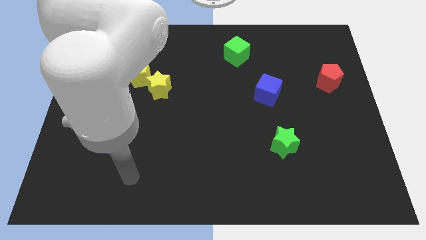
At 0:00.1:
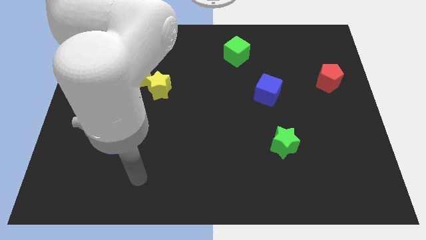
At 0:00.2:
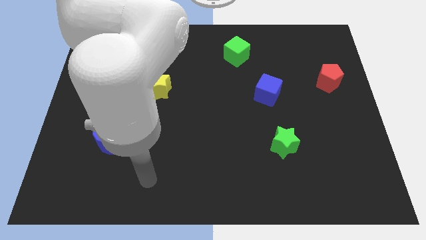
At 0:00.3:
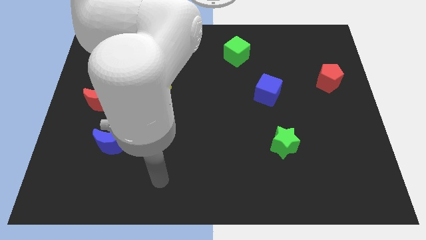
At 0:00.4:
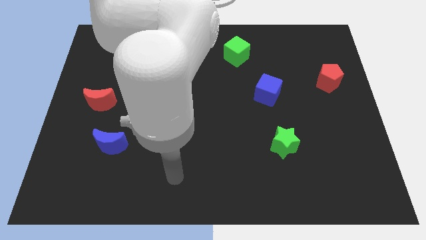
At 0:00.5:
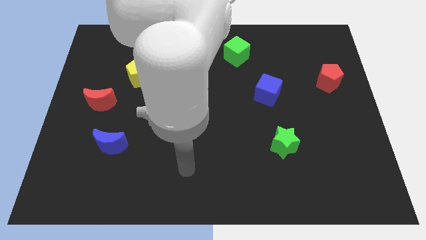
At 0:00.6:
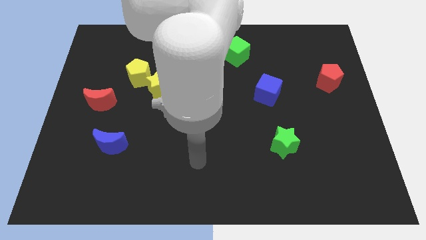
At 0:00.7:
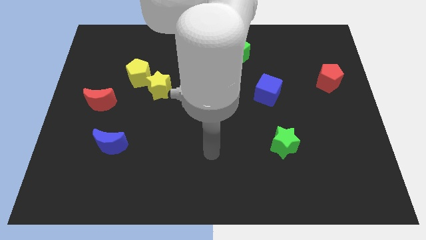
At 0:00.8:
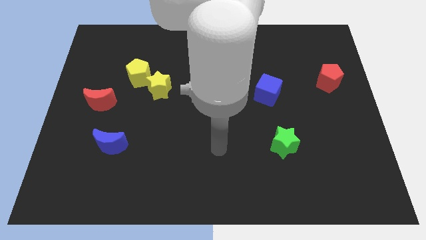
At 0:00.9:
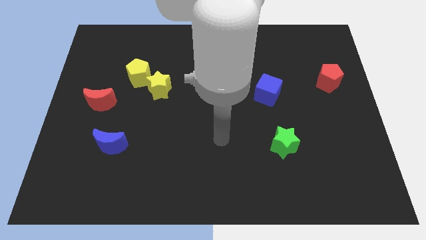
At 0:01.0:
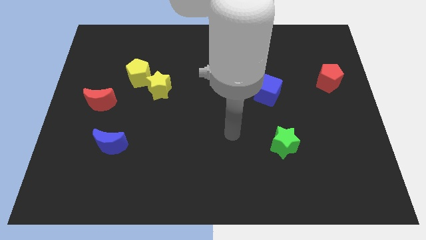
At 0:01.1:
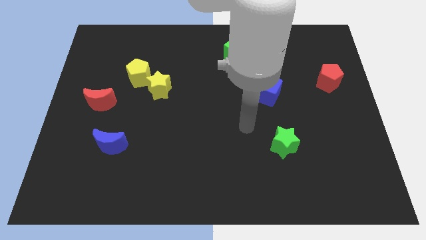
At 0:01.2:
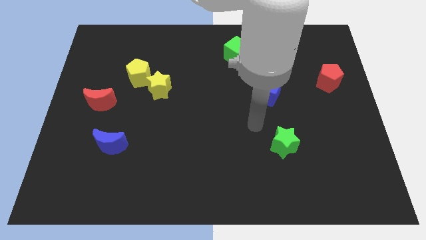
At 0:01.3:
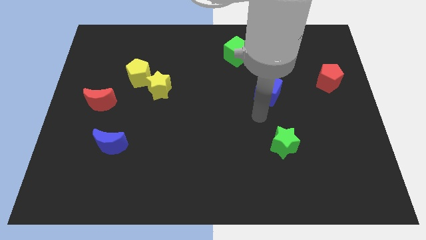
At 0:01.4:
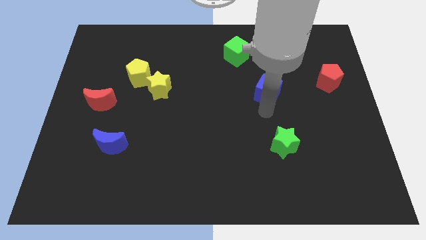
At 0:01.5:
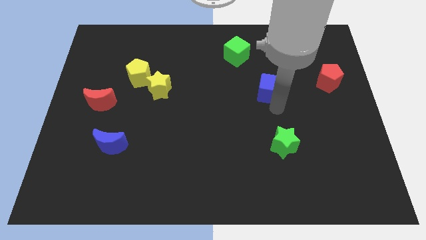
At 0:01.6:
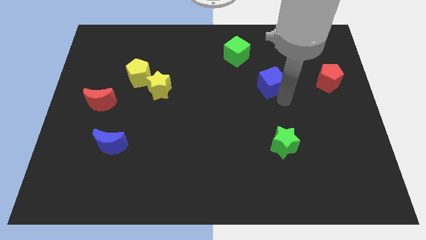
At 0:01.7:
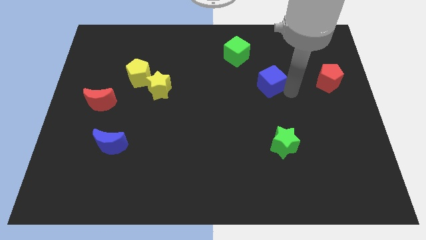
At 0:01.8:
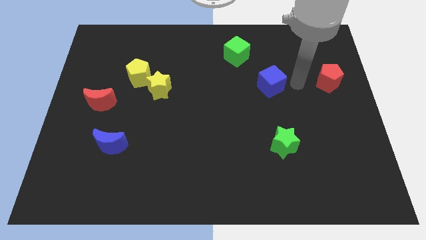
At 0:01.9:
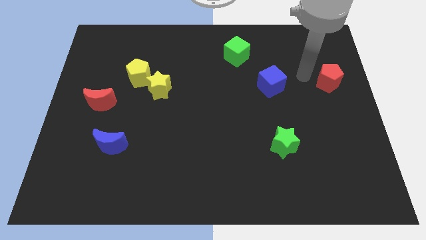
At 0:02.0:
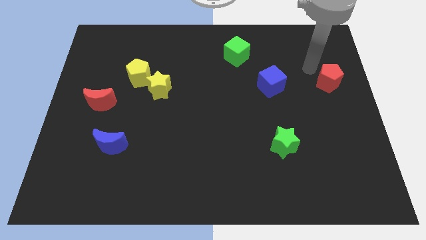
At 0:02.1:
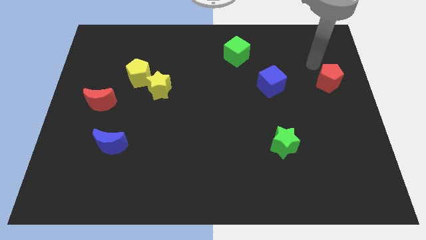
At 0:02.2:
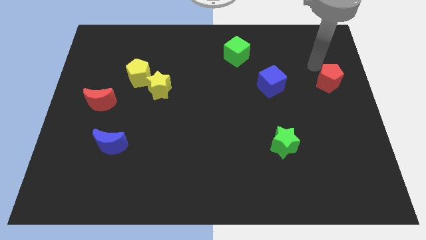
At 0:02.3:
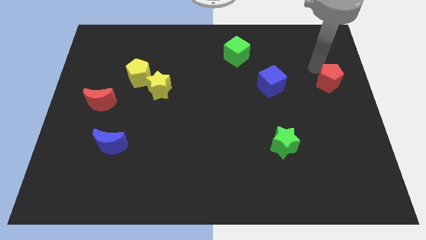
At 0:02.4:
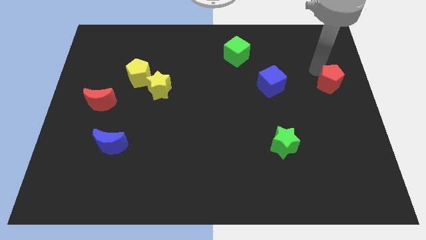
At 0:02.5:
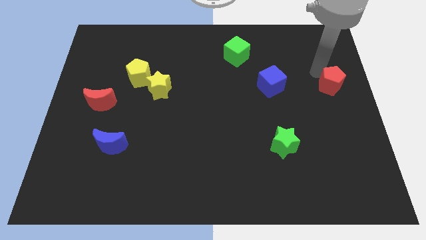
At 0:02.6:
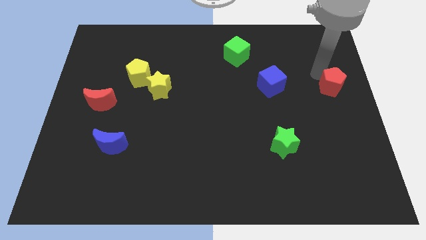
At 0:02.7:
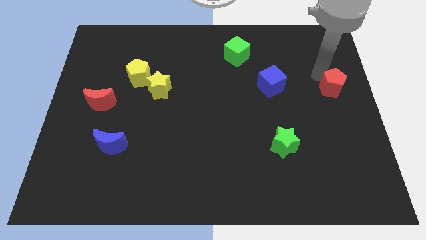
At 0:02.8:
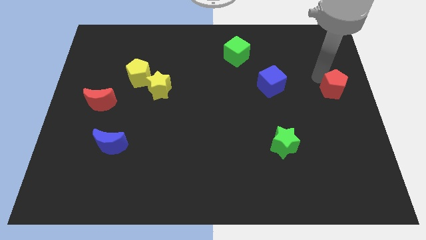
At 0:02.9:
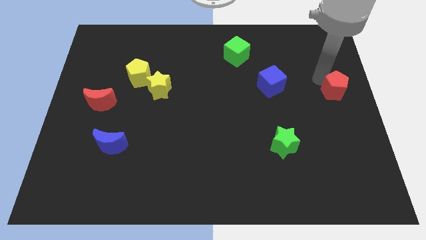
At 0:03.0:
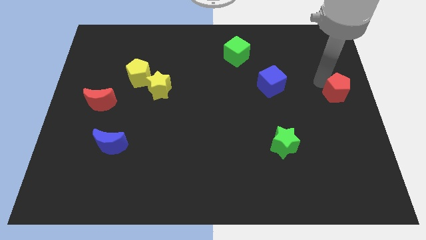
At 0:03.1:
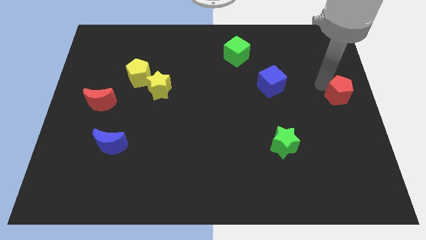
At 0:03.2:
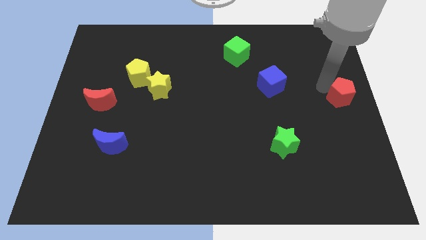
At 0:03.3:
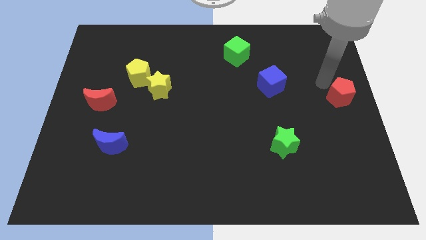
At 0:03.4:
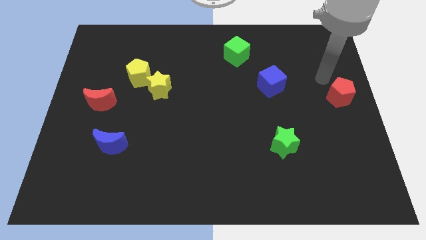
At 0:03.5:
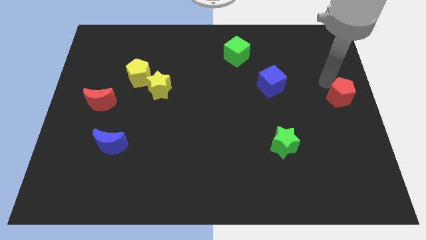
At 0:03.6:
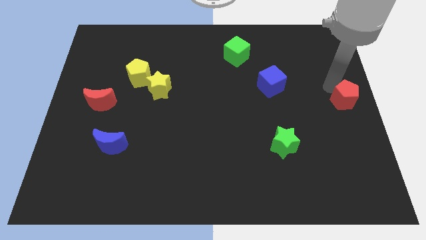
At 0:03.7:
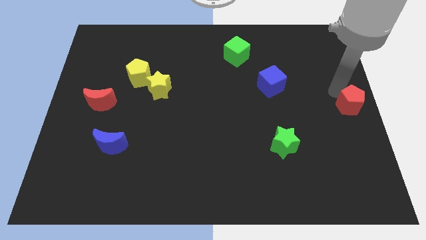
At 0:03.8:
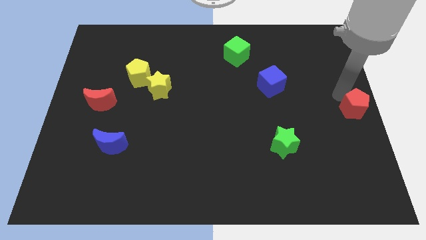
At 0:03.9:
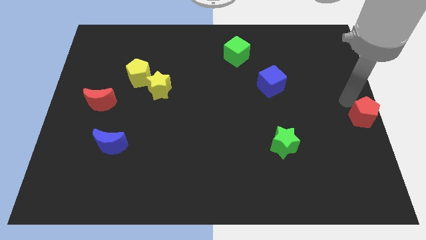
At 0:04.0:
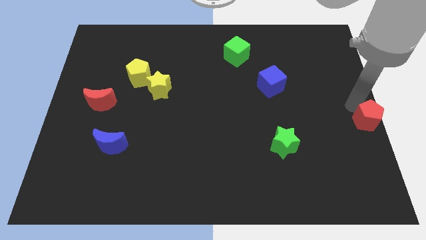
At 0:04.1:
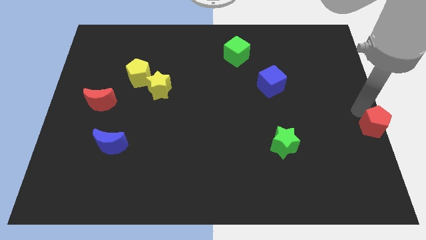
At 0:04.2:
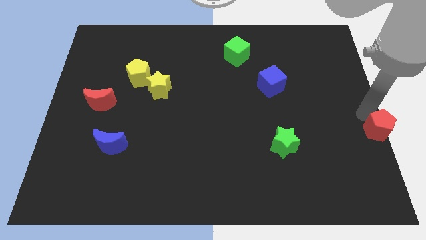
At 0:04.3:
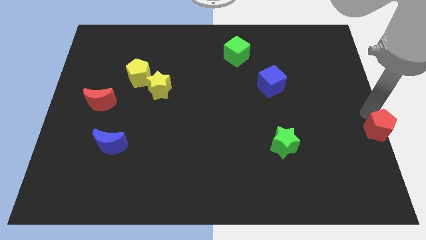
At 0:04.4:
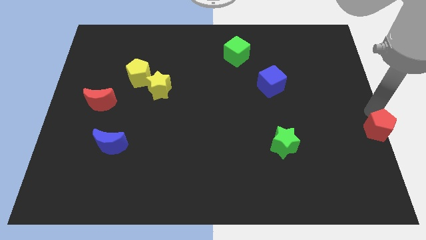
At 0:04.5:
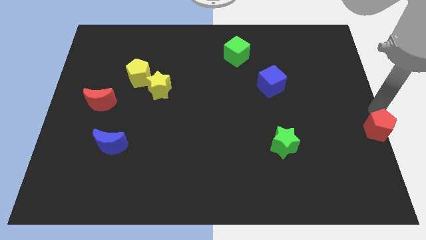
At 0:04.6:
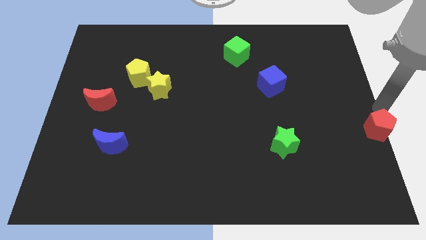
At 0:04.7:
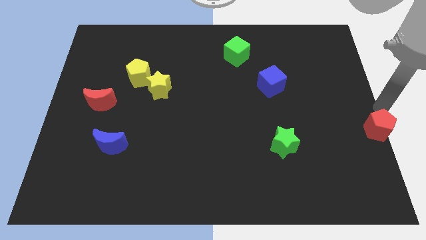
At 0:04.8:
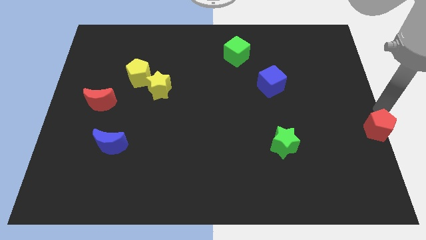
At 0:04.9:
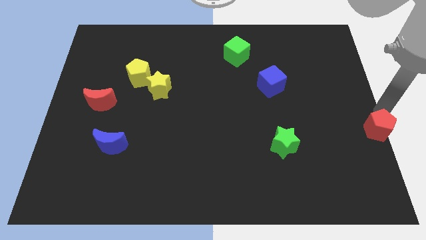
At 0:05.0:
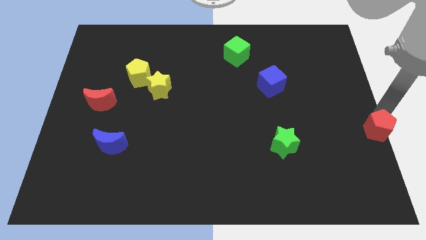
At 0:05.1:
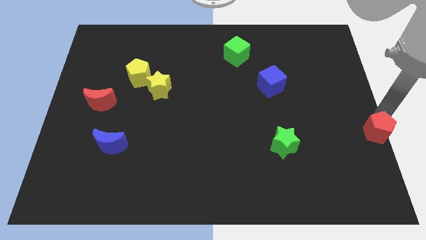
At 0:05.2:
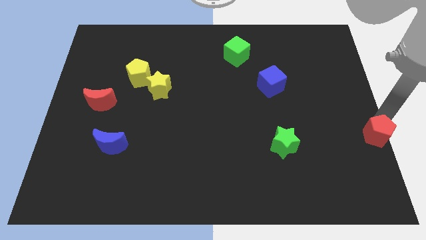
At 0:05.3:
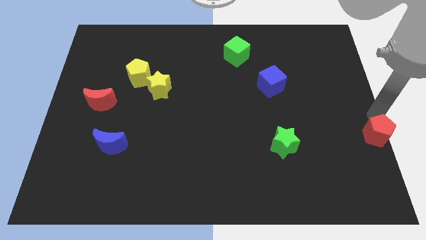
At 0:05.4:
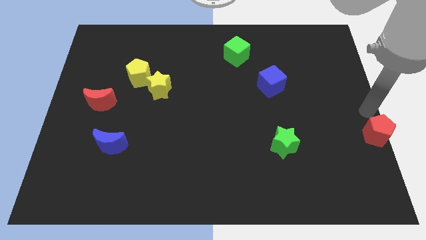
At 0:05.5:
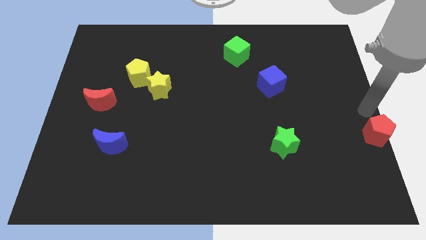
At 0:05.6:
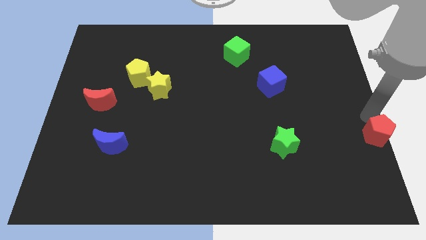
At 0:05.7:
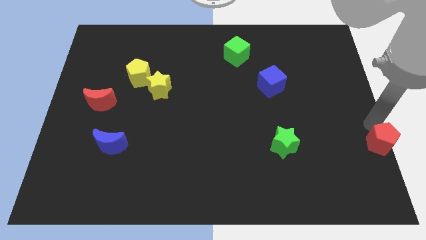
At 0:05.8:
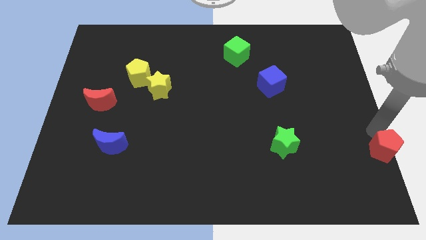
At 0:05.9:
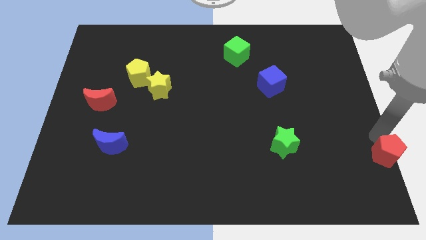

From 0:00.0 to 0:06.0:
slide the red pentagon to the bottom right
